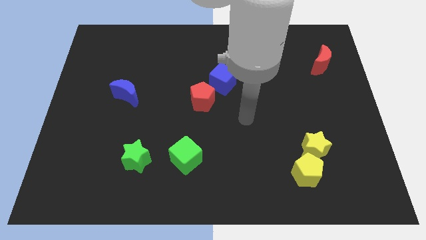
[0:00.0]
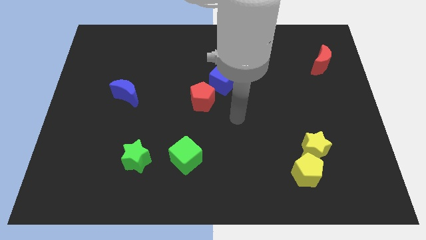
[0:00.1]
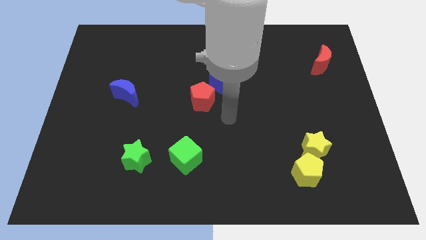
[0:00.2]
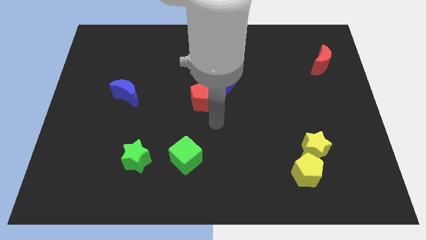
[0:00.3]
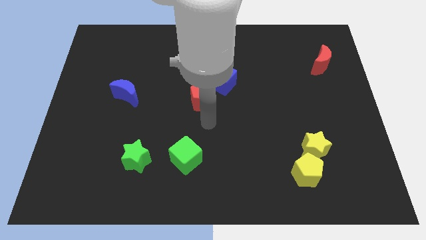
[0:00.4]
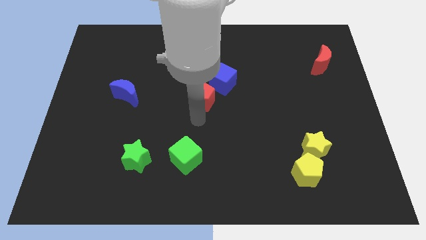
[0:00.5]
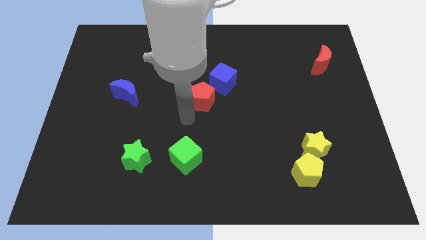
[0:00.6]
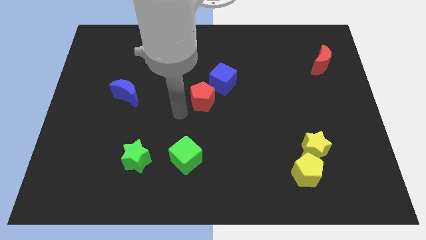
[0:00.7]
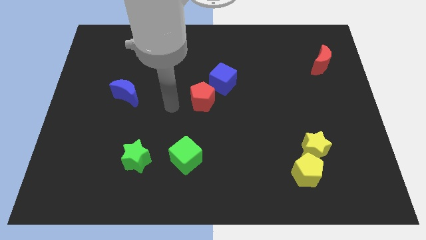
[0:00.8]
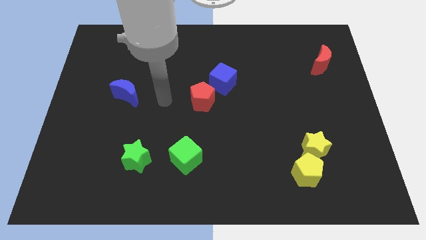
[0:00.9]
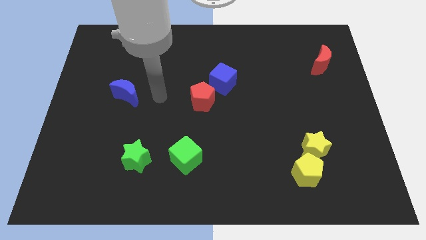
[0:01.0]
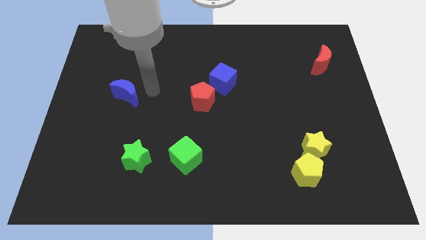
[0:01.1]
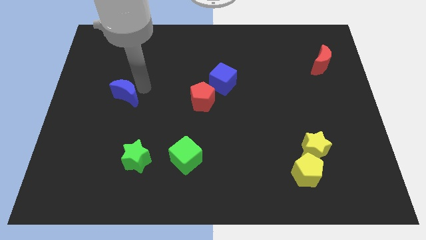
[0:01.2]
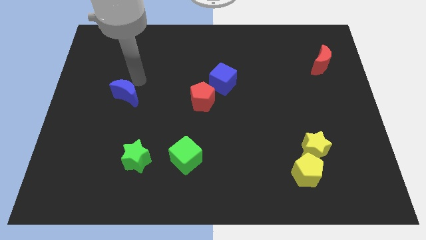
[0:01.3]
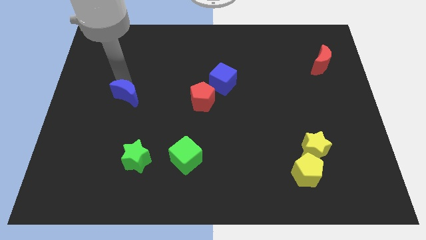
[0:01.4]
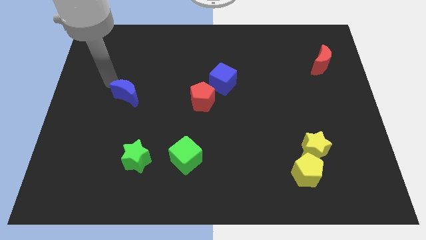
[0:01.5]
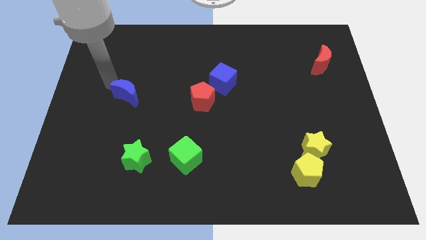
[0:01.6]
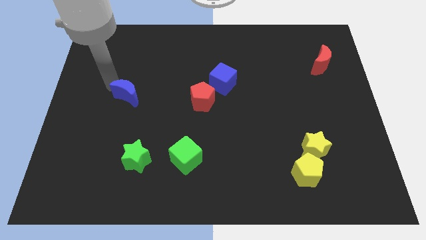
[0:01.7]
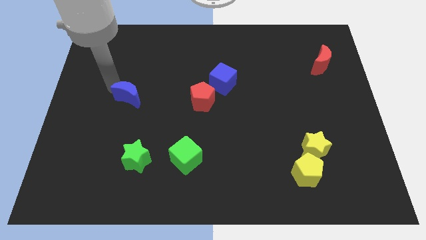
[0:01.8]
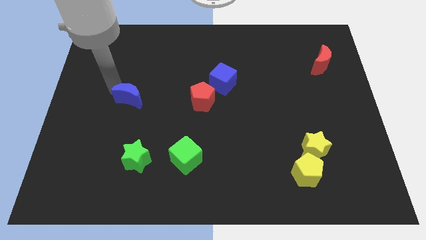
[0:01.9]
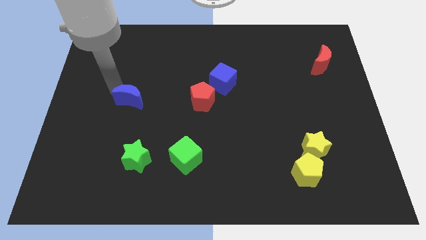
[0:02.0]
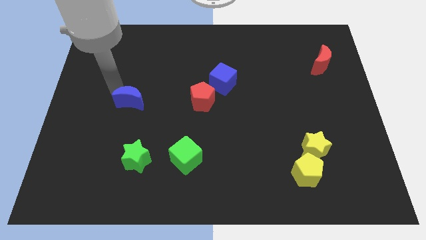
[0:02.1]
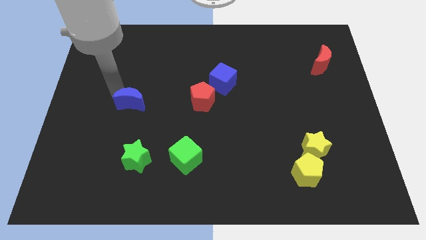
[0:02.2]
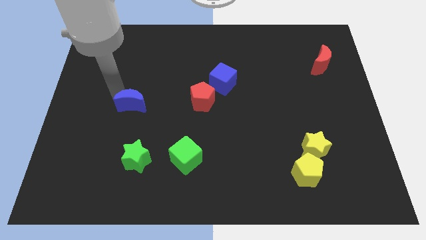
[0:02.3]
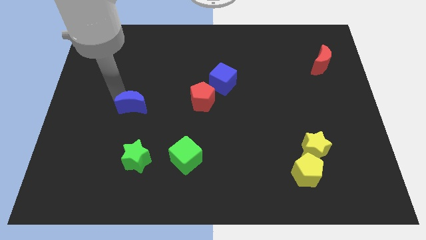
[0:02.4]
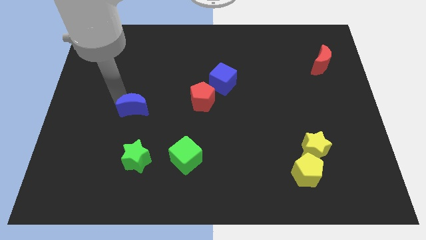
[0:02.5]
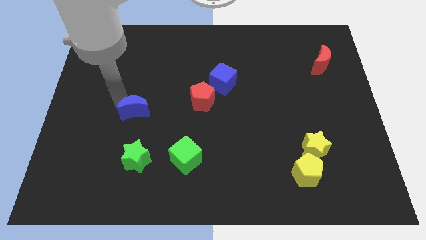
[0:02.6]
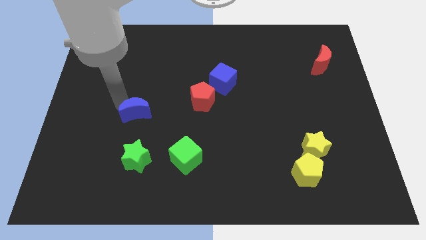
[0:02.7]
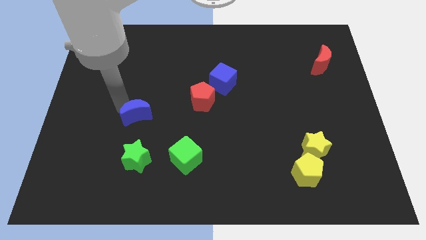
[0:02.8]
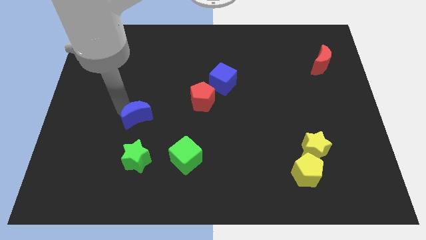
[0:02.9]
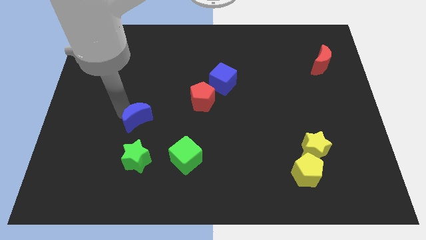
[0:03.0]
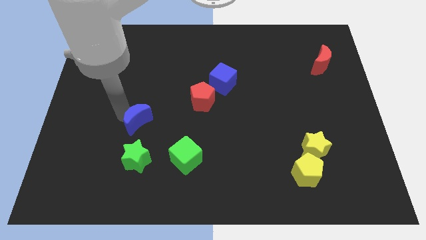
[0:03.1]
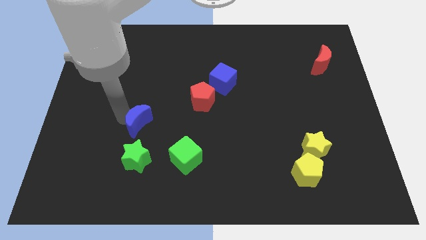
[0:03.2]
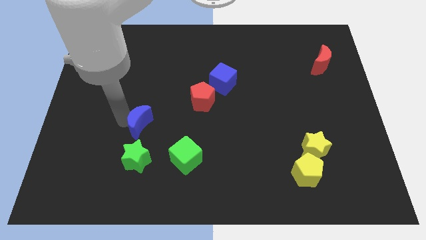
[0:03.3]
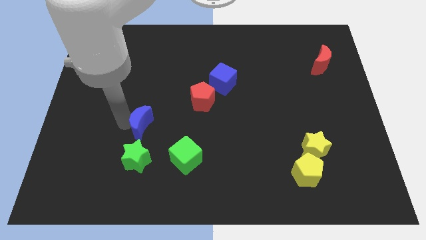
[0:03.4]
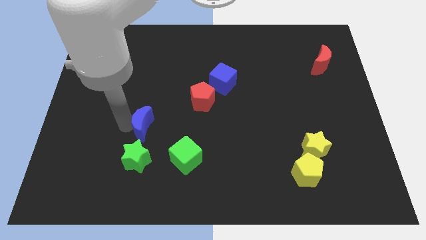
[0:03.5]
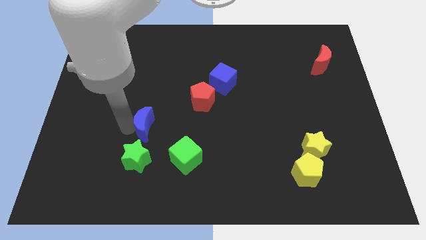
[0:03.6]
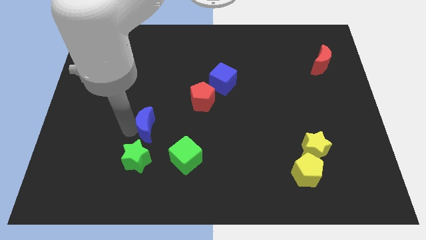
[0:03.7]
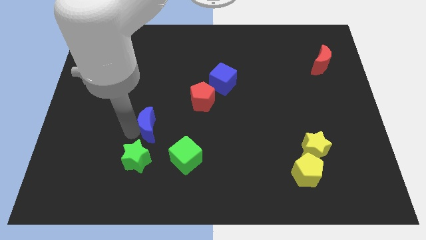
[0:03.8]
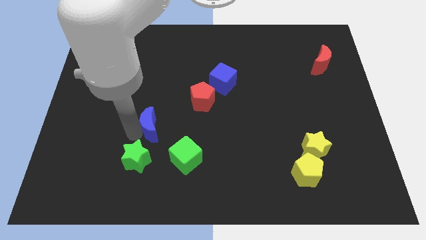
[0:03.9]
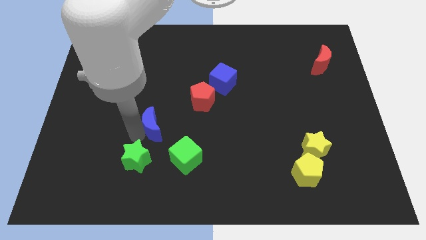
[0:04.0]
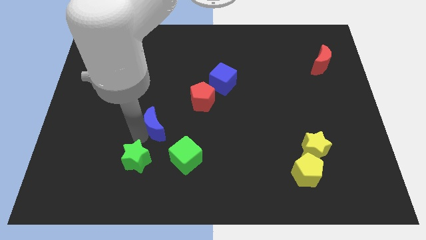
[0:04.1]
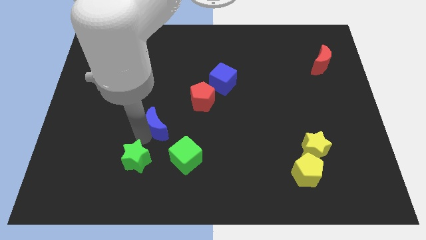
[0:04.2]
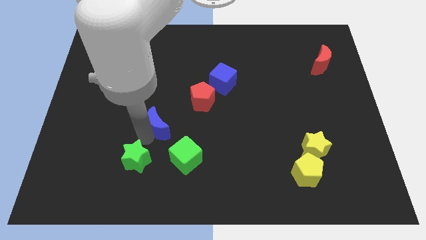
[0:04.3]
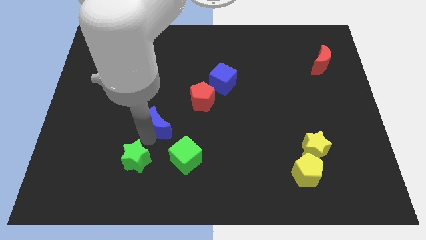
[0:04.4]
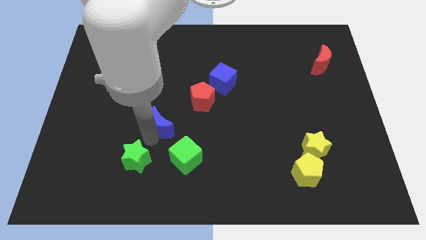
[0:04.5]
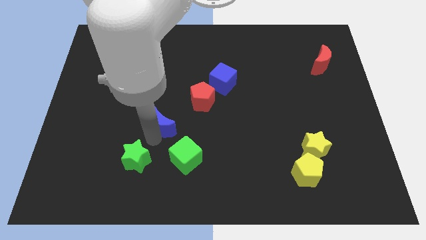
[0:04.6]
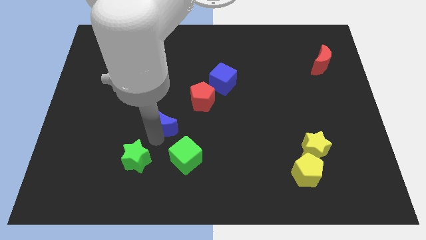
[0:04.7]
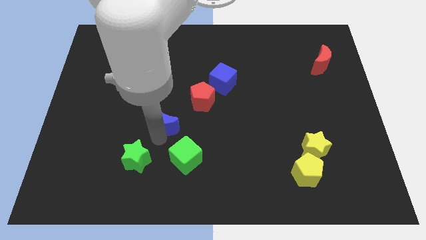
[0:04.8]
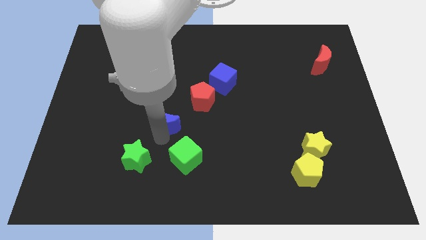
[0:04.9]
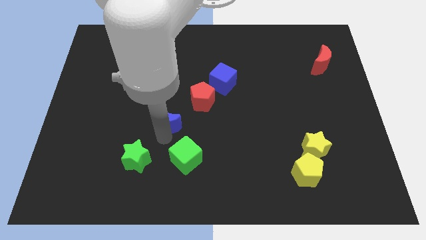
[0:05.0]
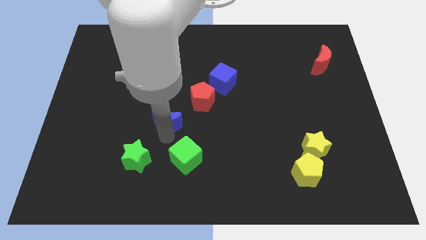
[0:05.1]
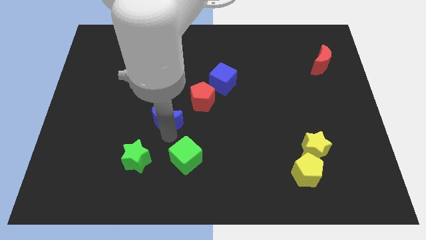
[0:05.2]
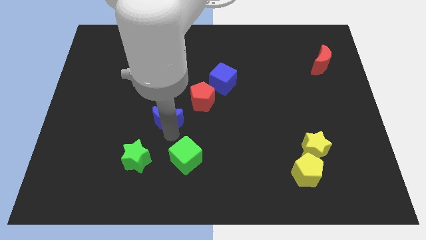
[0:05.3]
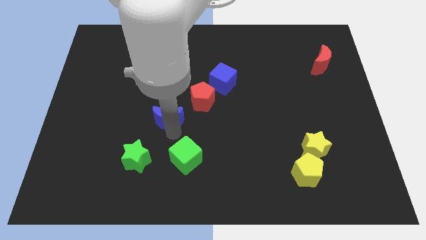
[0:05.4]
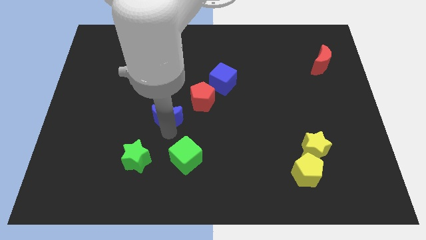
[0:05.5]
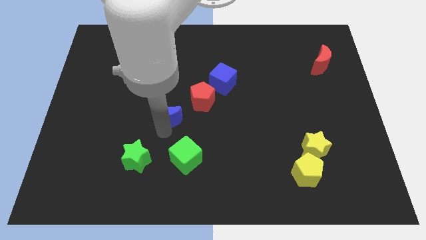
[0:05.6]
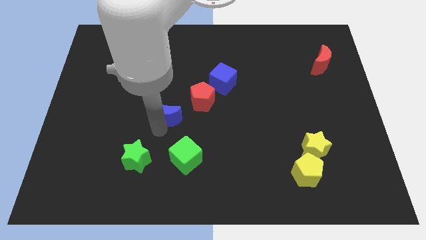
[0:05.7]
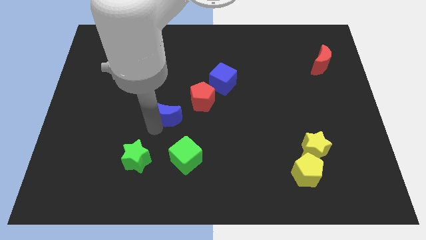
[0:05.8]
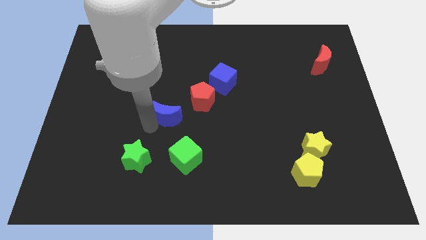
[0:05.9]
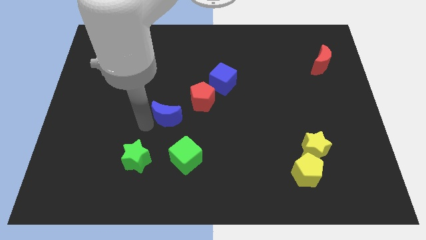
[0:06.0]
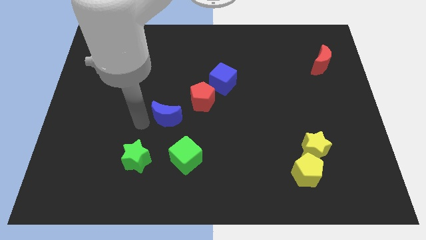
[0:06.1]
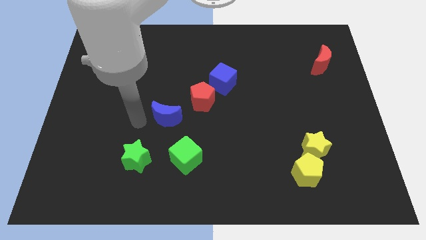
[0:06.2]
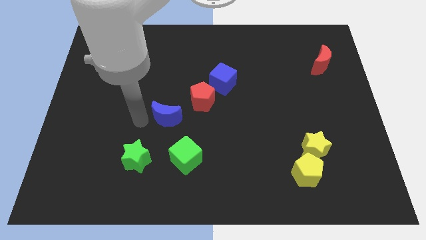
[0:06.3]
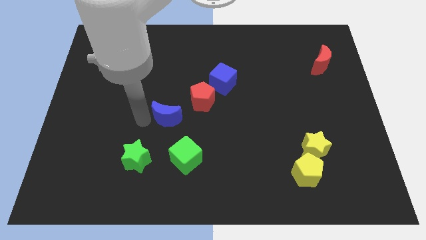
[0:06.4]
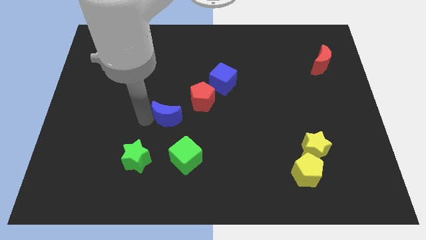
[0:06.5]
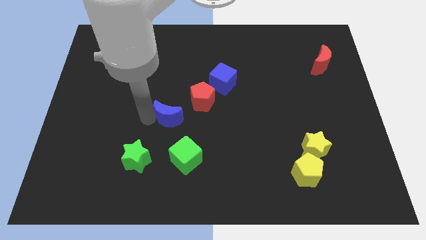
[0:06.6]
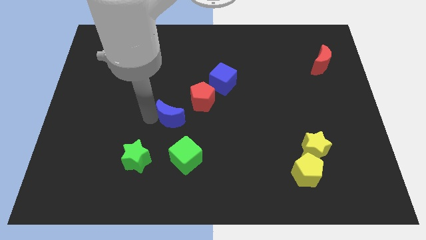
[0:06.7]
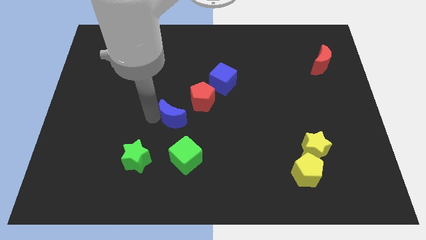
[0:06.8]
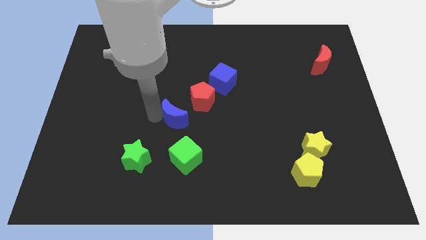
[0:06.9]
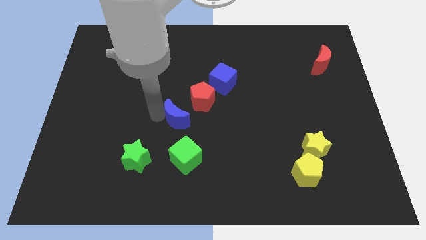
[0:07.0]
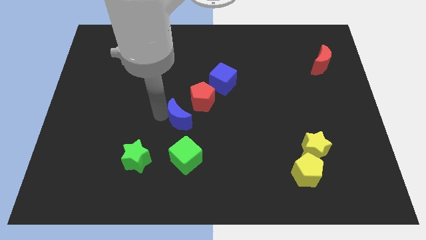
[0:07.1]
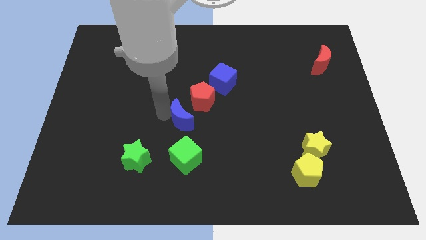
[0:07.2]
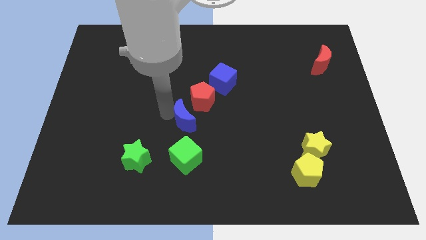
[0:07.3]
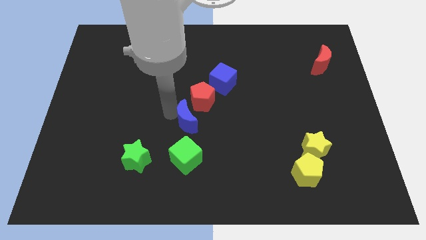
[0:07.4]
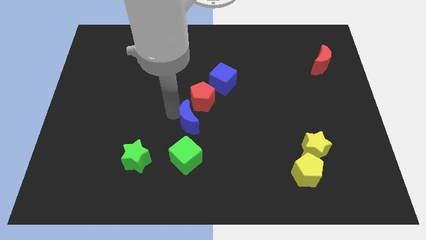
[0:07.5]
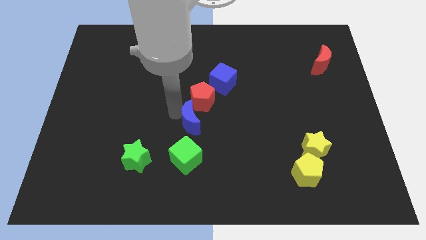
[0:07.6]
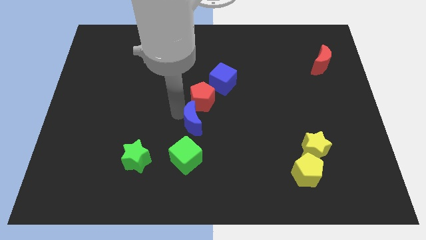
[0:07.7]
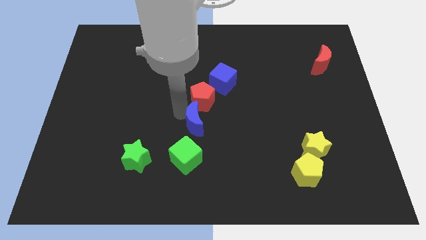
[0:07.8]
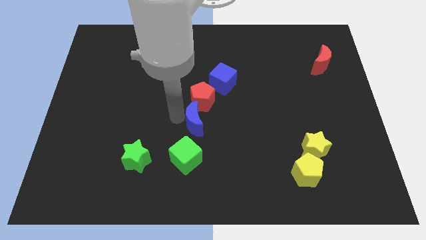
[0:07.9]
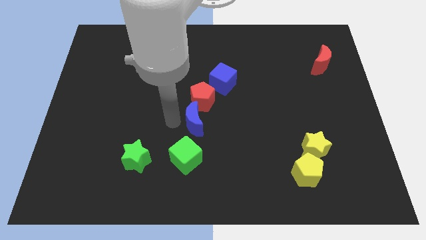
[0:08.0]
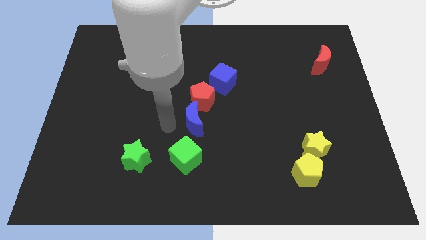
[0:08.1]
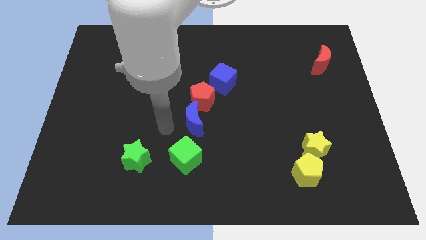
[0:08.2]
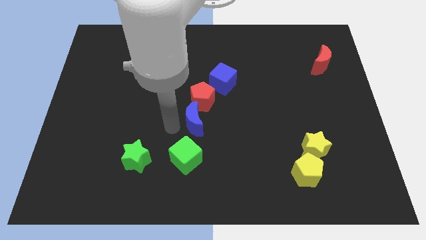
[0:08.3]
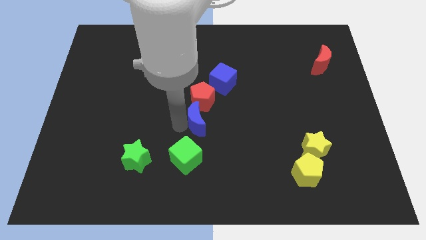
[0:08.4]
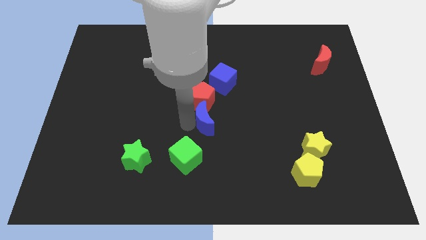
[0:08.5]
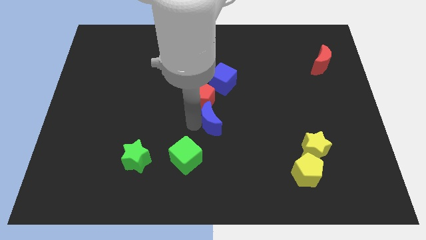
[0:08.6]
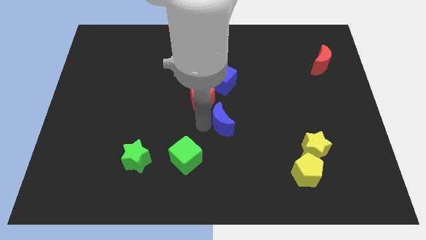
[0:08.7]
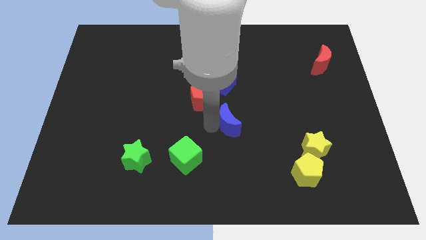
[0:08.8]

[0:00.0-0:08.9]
move the blue moon to the right
